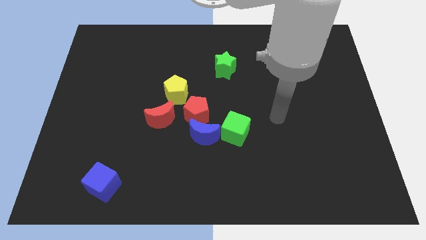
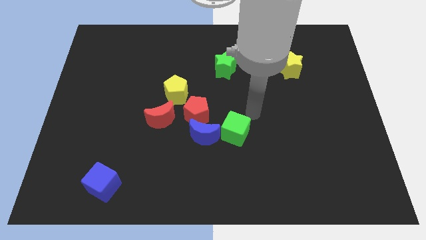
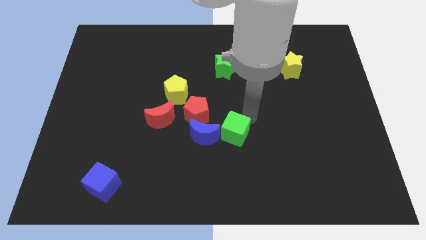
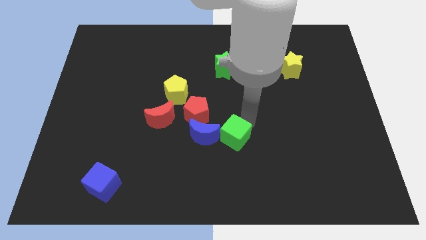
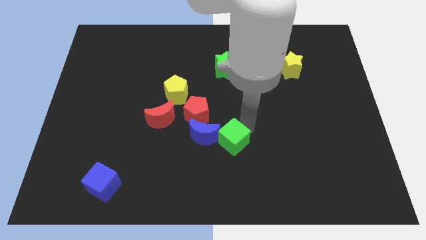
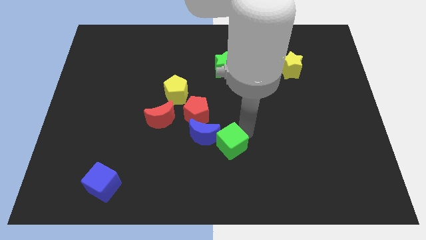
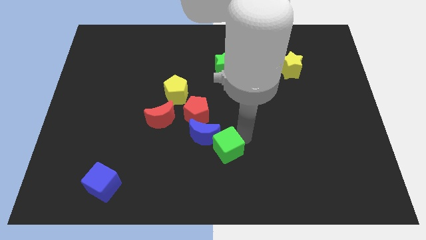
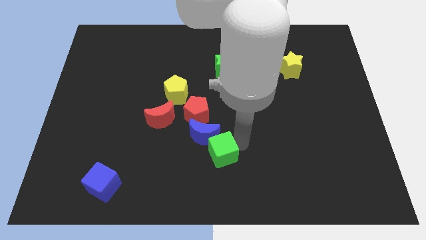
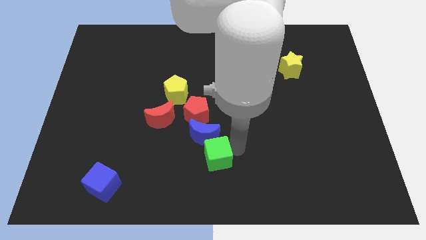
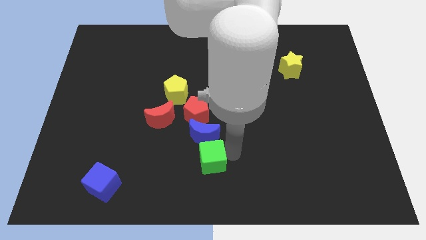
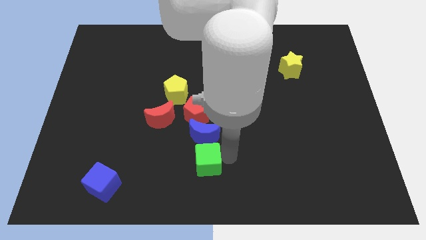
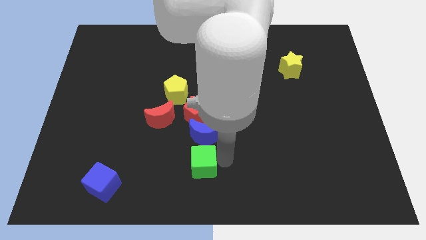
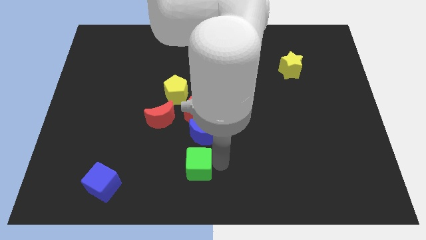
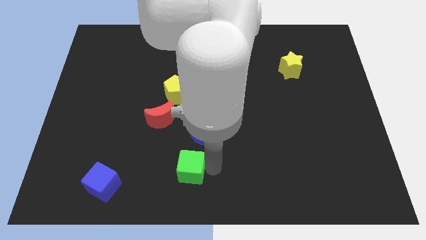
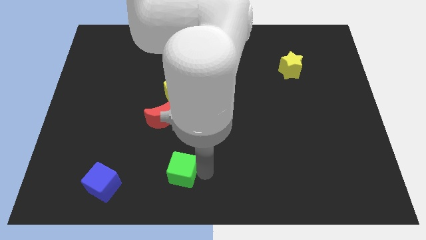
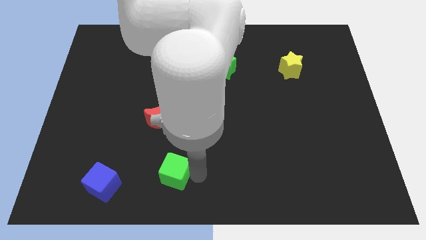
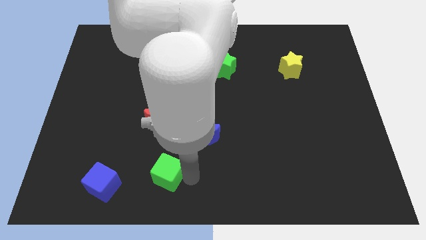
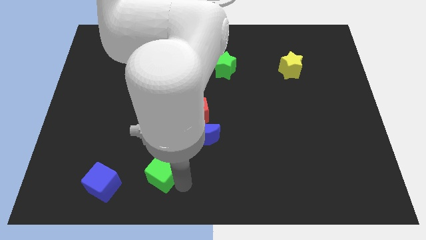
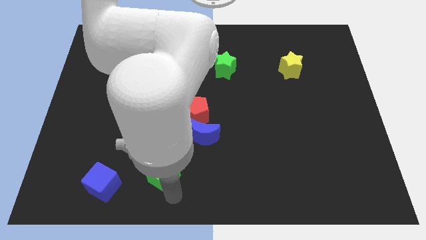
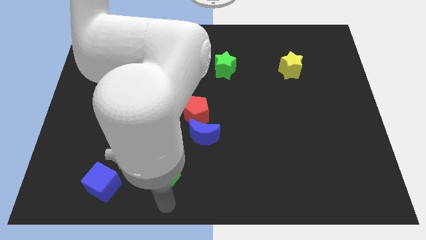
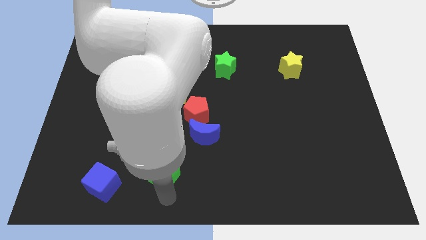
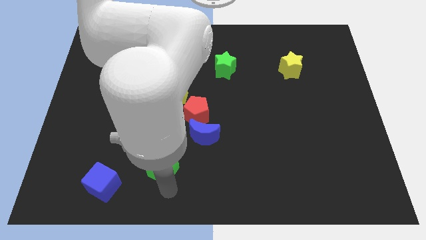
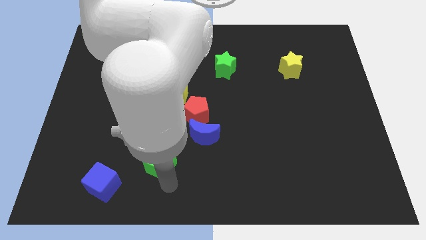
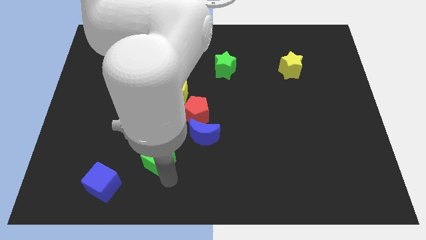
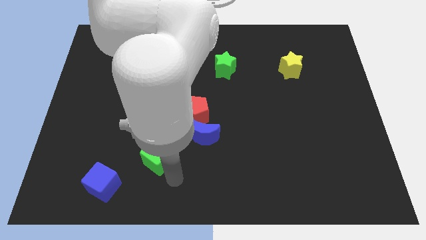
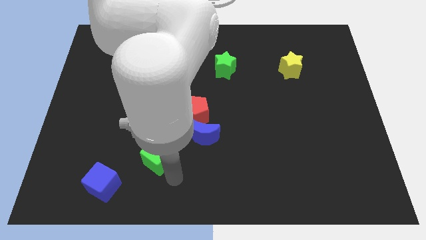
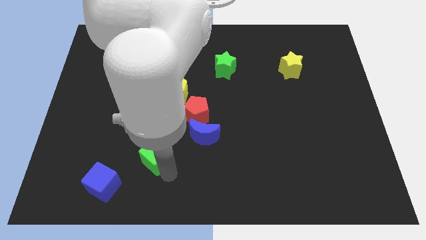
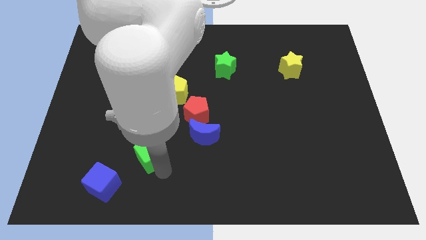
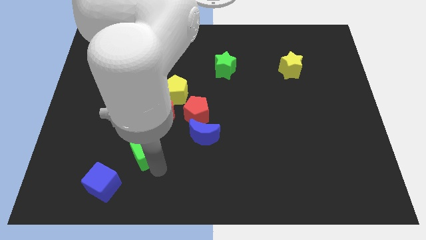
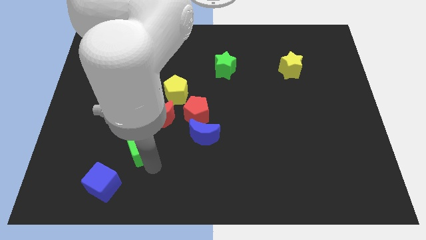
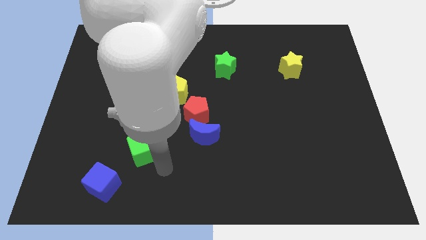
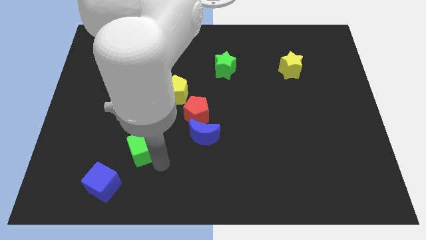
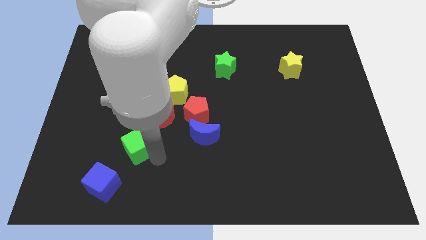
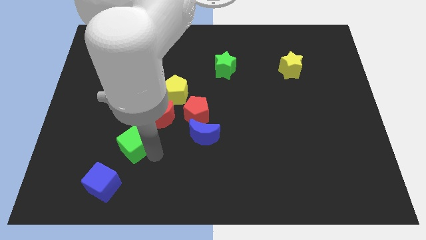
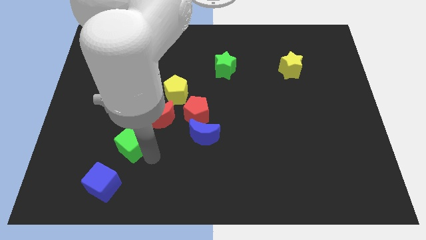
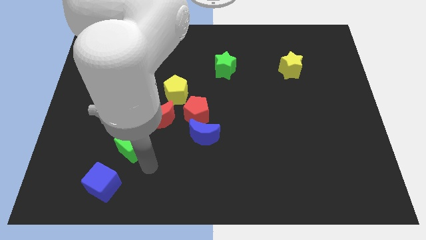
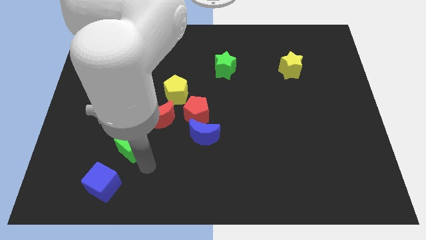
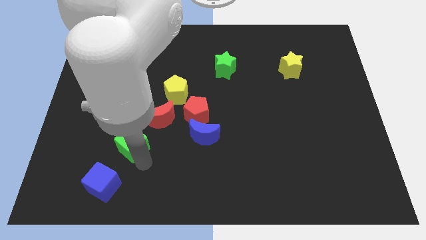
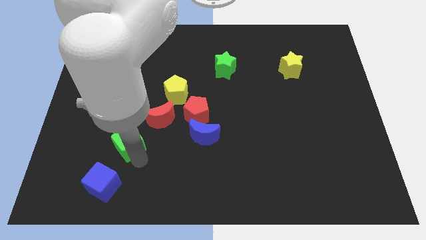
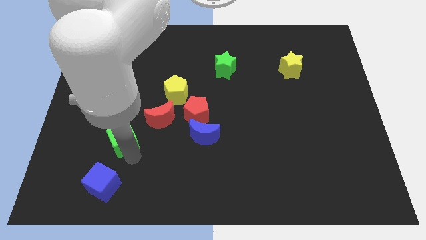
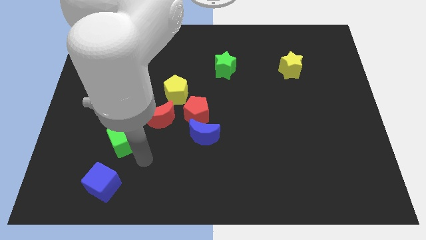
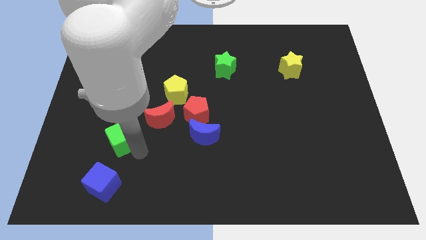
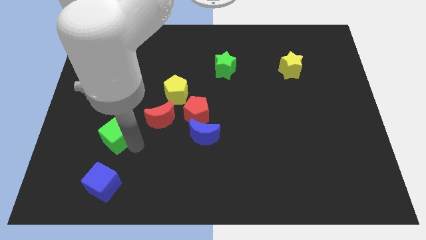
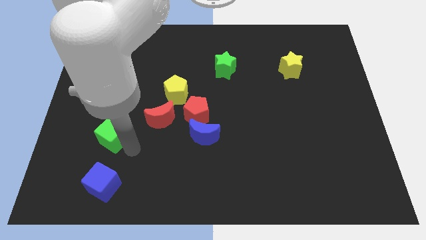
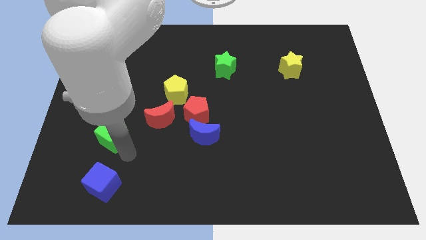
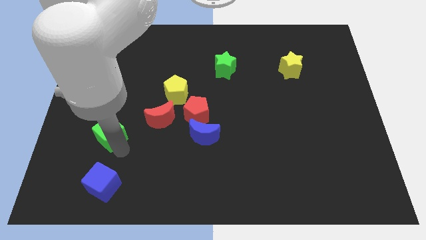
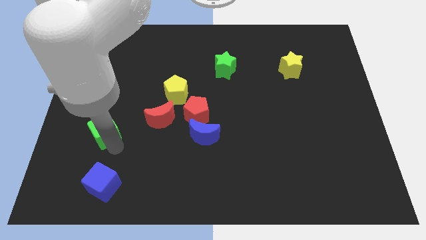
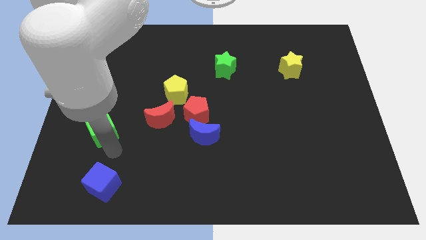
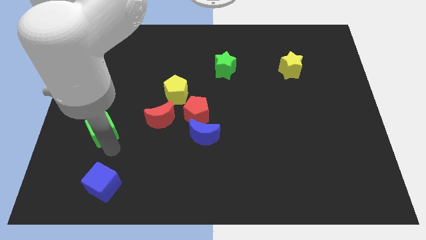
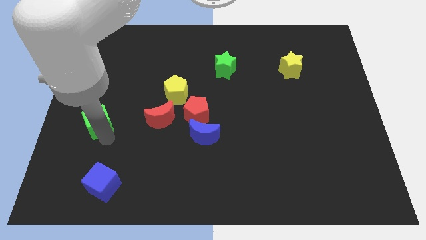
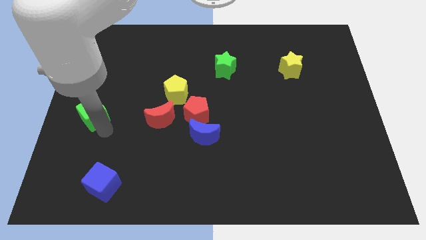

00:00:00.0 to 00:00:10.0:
move the green cube to the left side

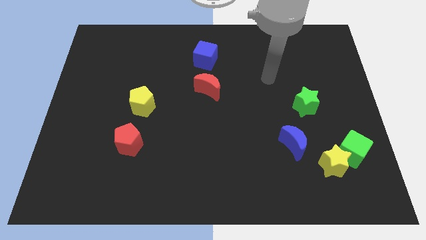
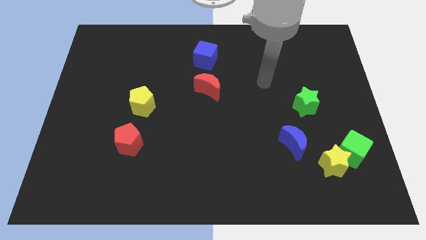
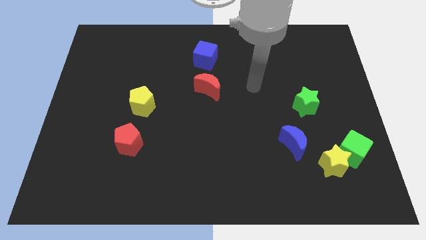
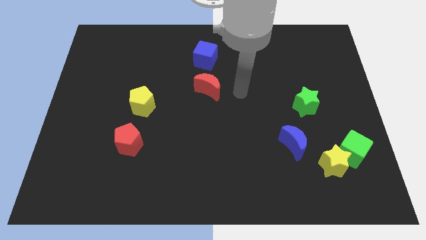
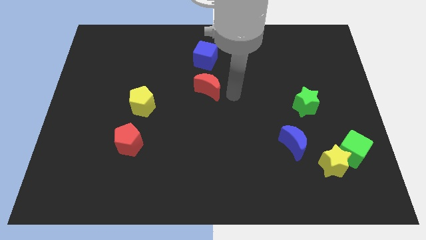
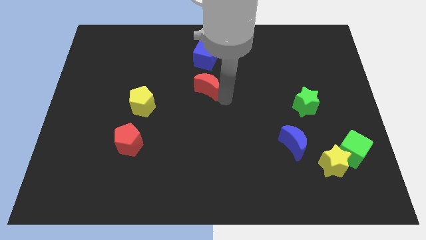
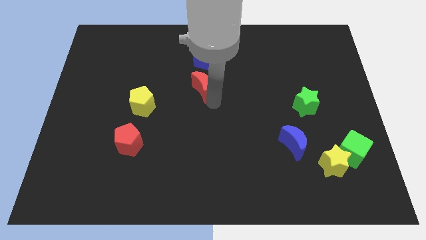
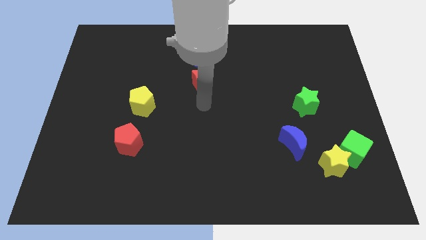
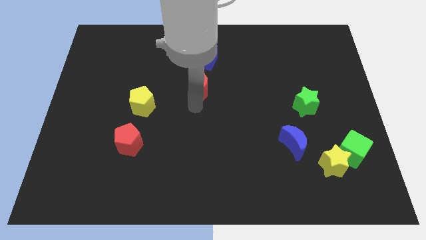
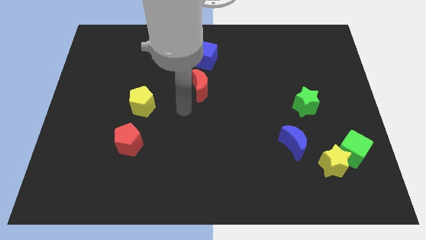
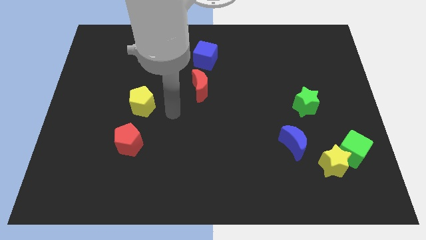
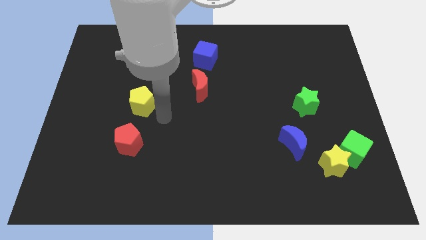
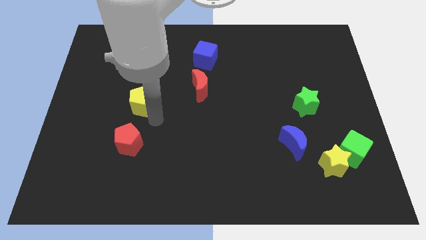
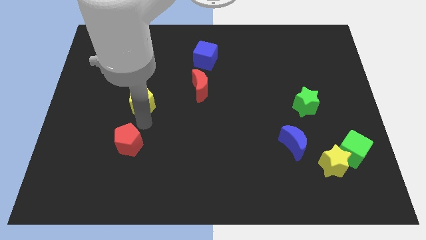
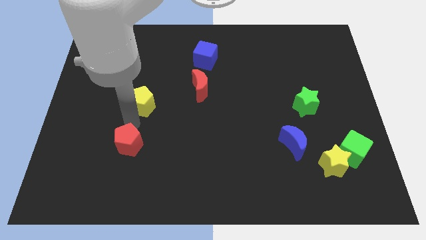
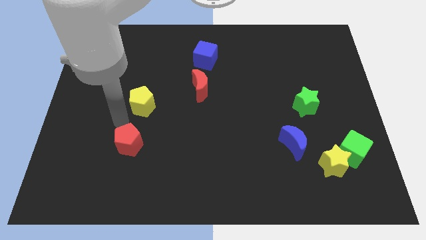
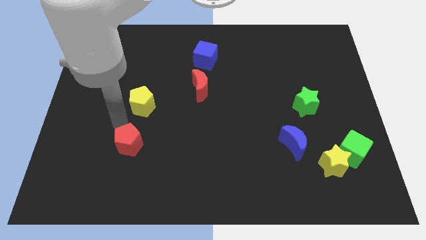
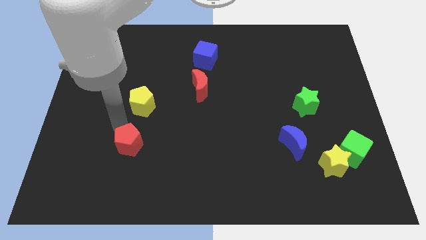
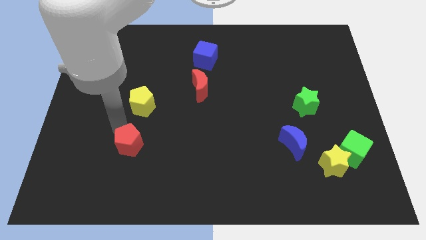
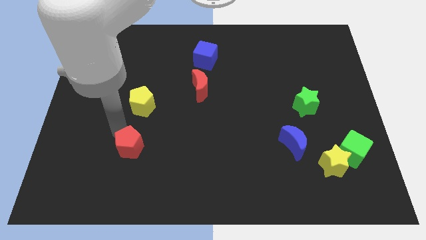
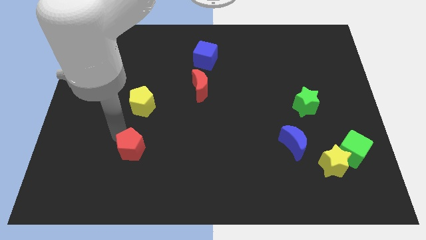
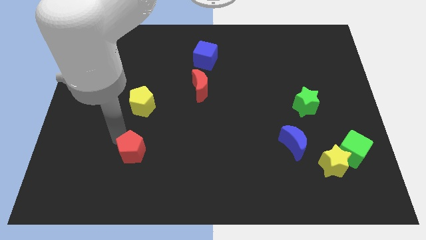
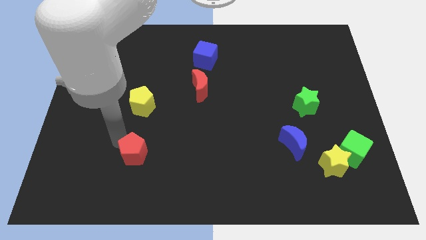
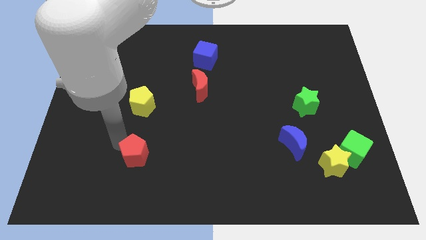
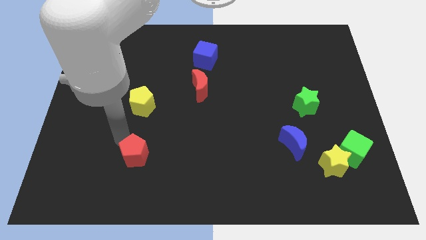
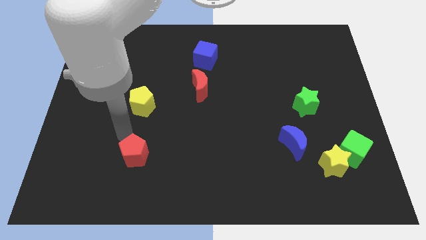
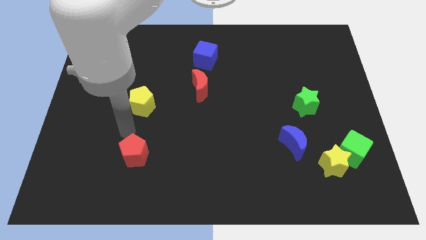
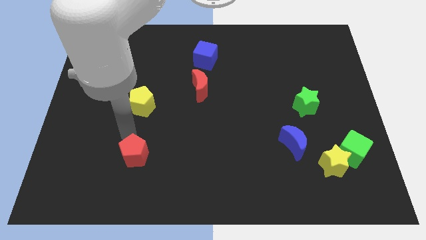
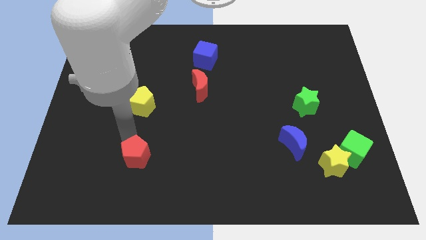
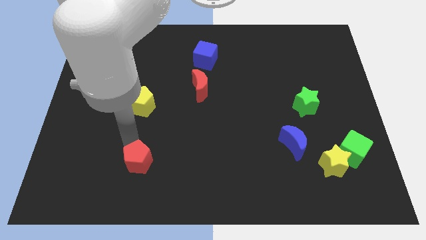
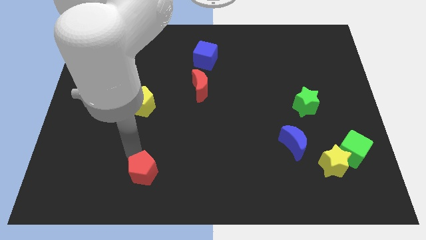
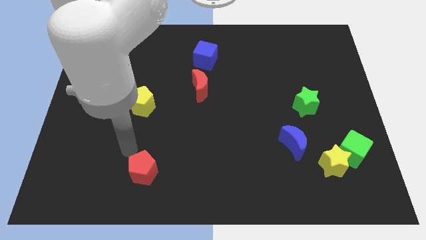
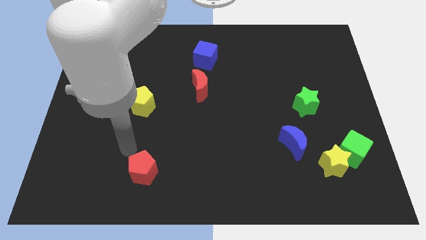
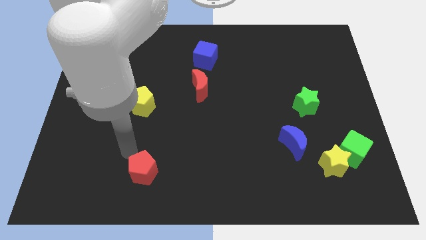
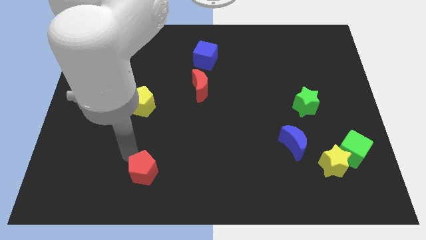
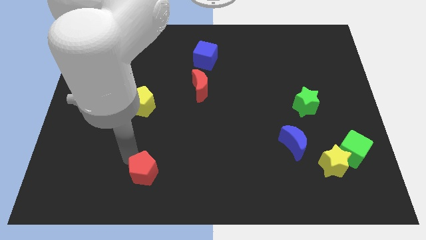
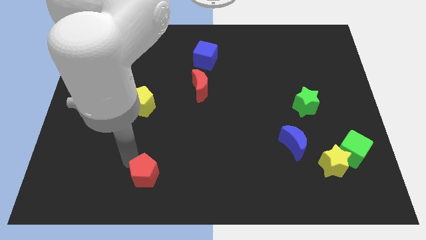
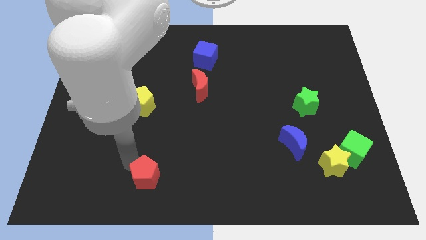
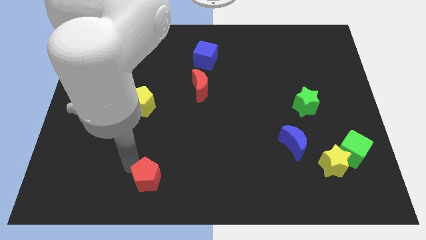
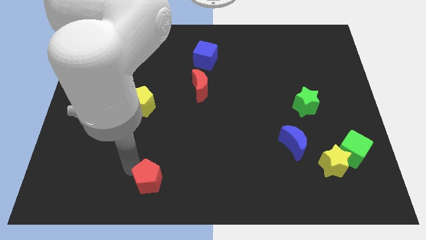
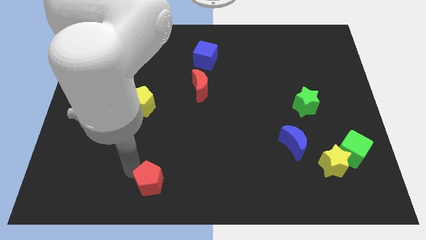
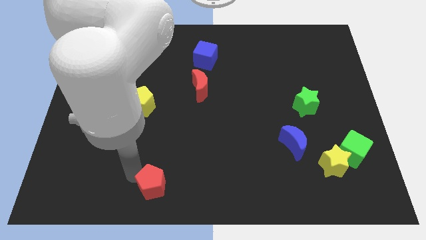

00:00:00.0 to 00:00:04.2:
put the red pentagon to the bottom
